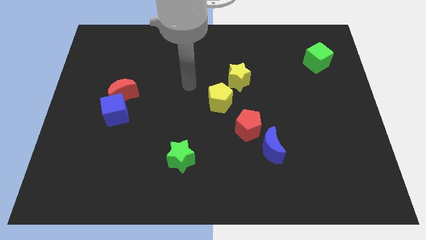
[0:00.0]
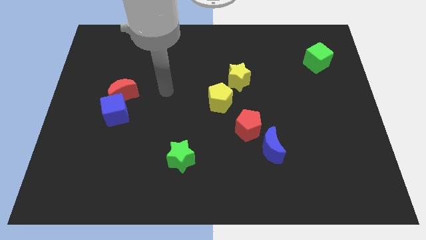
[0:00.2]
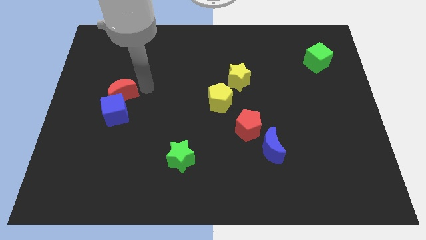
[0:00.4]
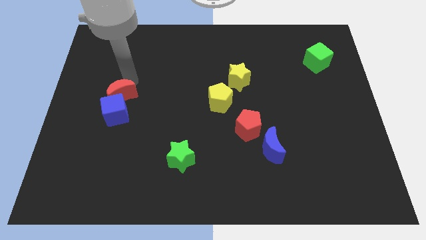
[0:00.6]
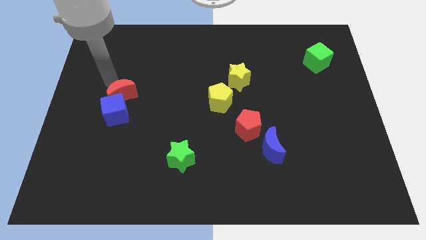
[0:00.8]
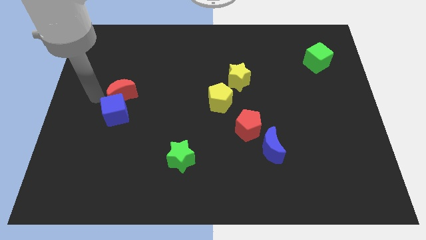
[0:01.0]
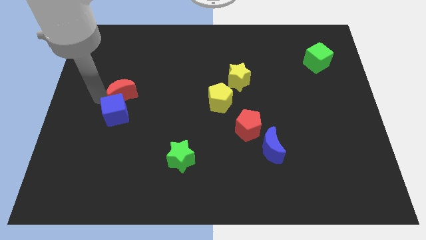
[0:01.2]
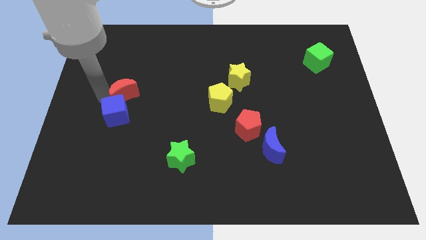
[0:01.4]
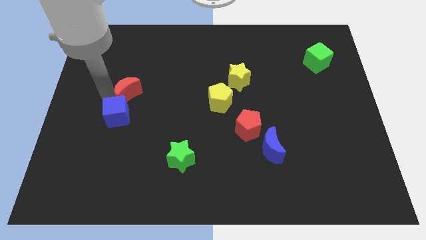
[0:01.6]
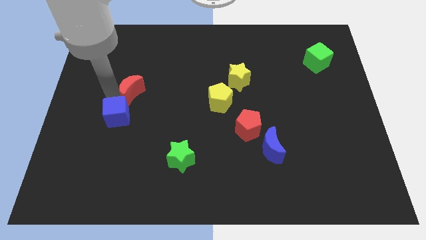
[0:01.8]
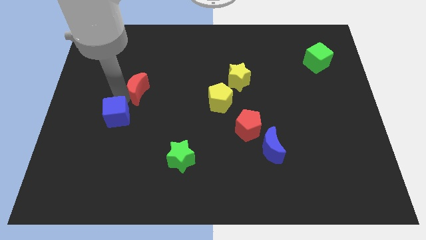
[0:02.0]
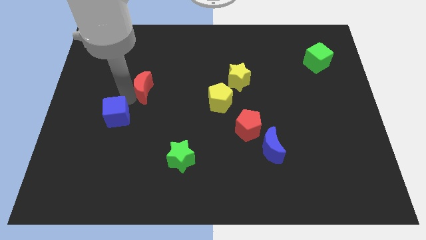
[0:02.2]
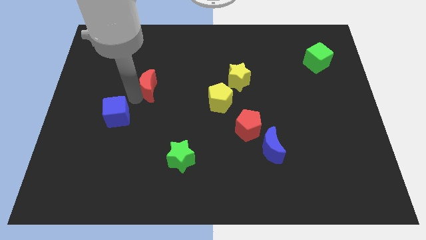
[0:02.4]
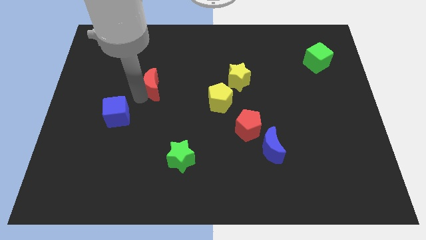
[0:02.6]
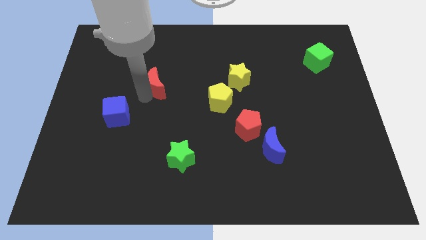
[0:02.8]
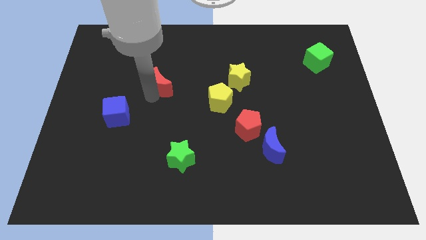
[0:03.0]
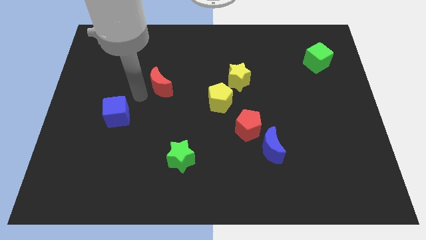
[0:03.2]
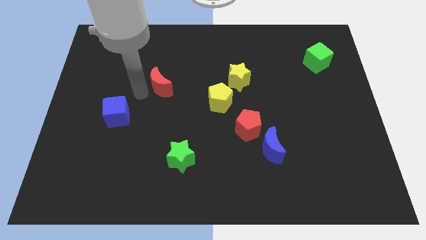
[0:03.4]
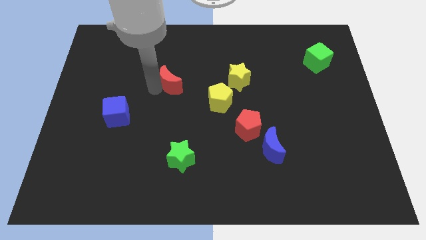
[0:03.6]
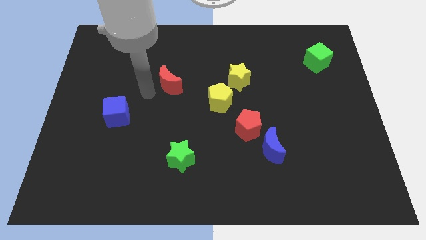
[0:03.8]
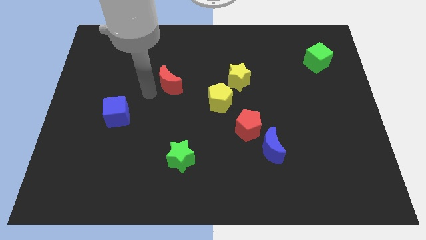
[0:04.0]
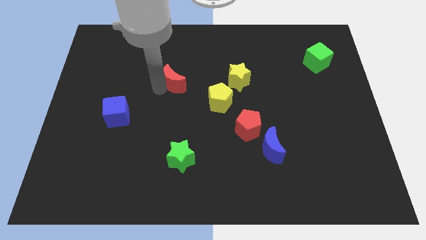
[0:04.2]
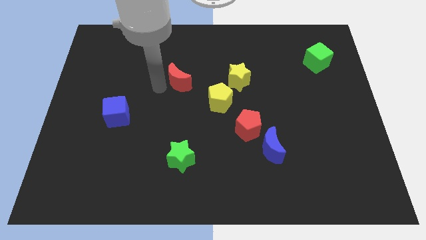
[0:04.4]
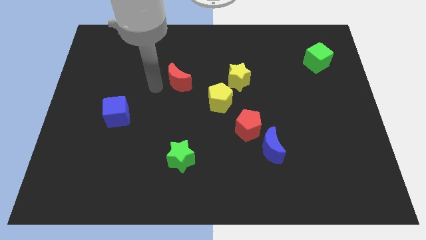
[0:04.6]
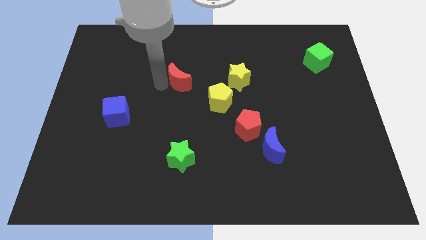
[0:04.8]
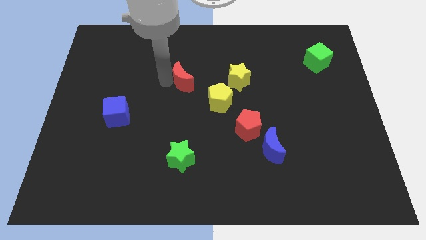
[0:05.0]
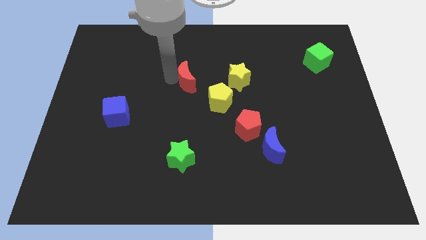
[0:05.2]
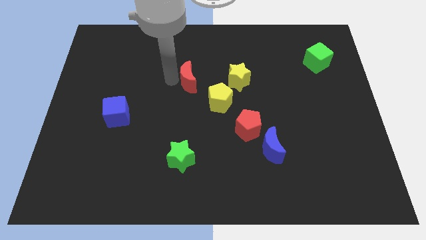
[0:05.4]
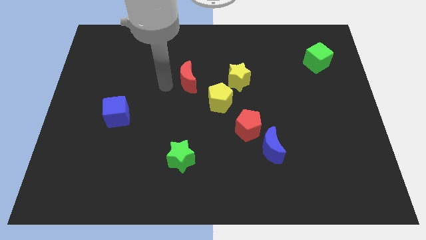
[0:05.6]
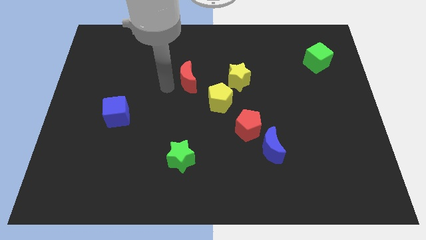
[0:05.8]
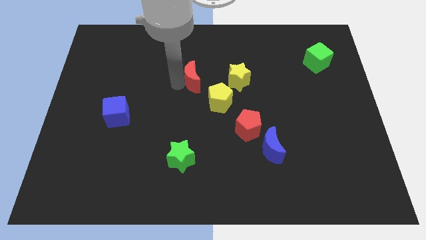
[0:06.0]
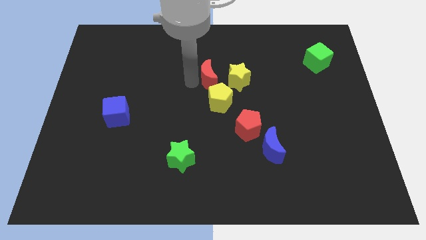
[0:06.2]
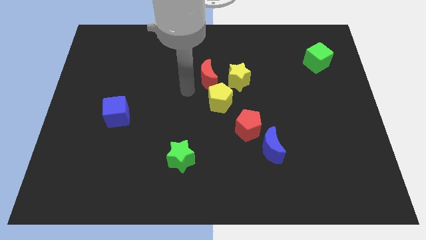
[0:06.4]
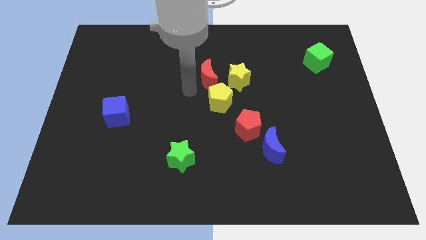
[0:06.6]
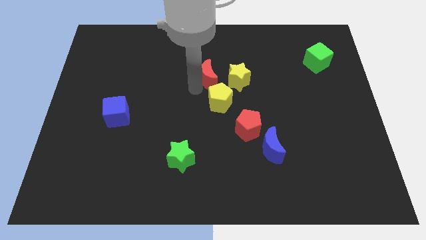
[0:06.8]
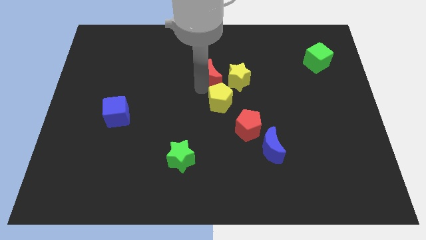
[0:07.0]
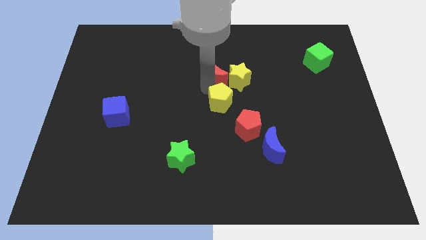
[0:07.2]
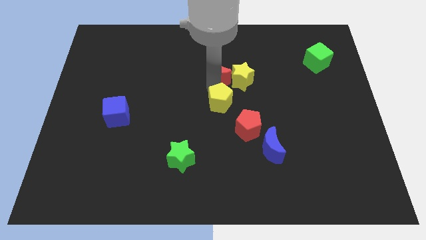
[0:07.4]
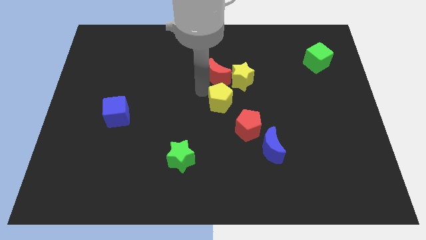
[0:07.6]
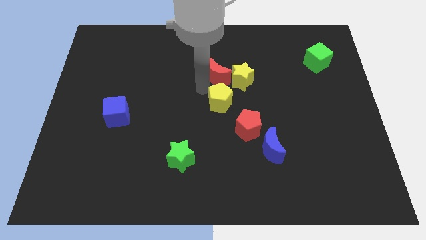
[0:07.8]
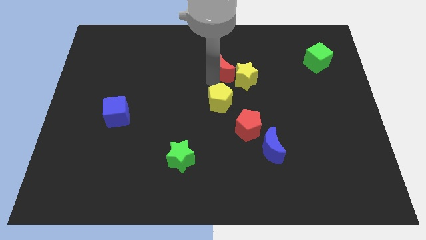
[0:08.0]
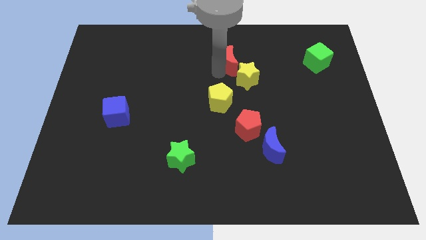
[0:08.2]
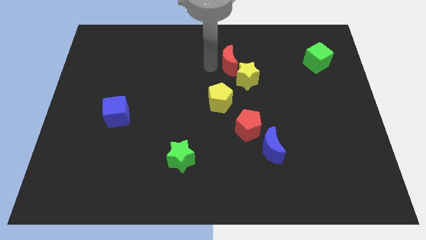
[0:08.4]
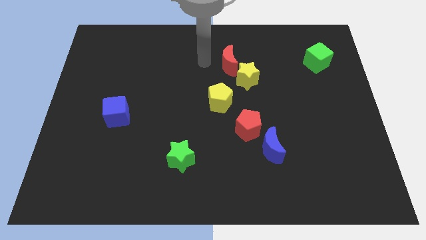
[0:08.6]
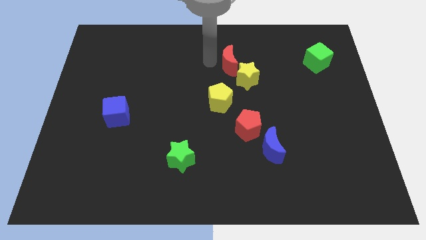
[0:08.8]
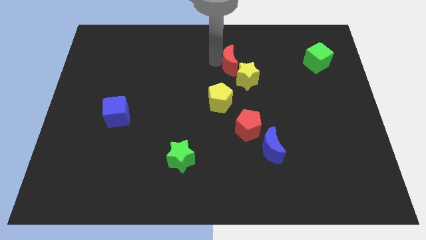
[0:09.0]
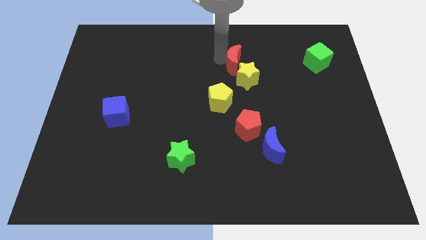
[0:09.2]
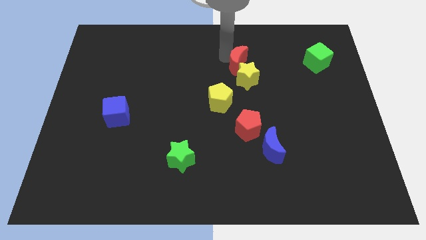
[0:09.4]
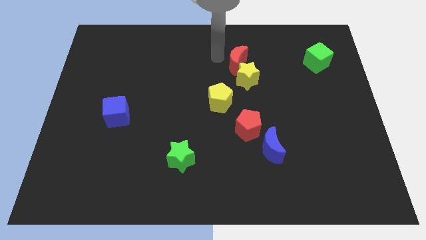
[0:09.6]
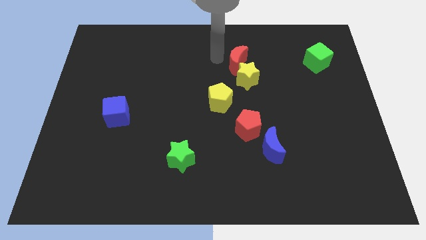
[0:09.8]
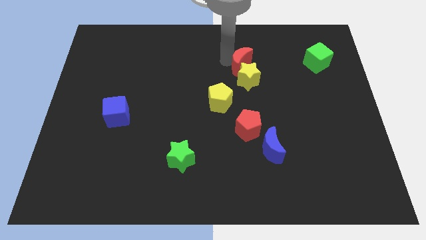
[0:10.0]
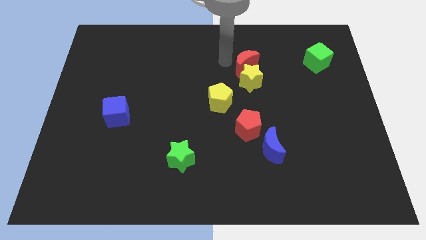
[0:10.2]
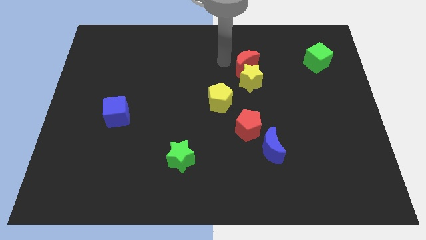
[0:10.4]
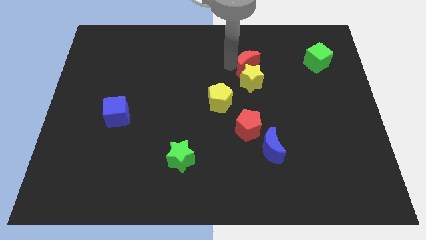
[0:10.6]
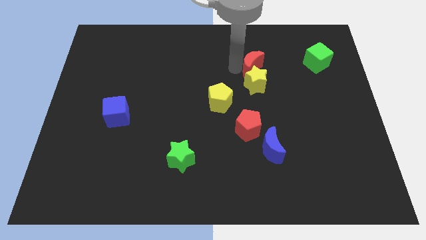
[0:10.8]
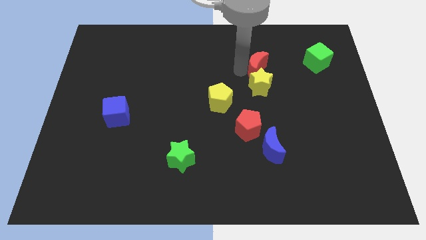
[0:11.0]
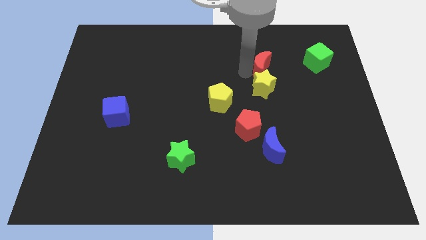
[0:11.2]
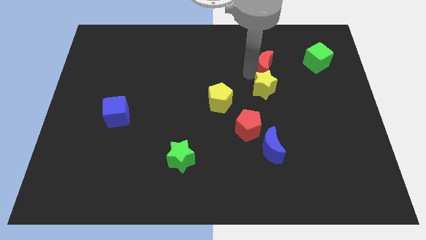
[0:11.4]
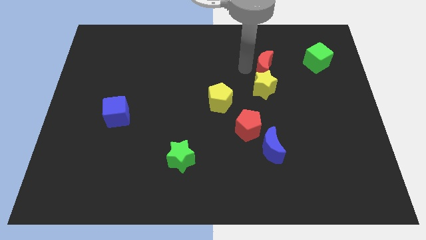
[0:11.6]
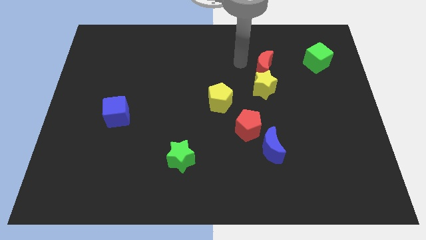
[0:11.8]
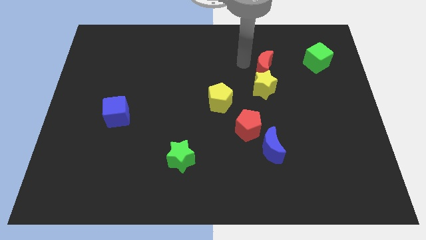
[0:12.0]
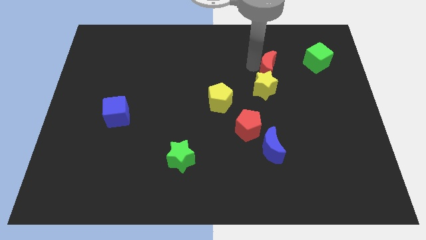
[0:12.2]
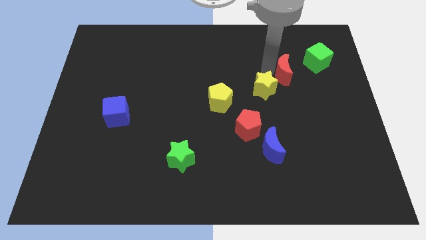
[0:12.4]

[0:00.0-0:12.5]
slide the red moon to the bottom left of the green cube
